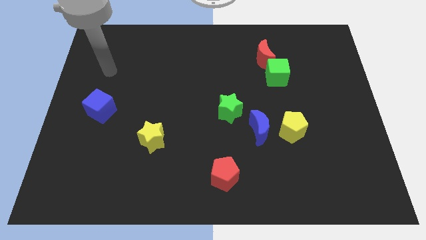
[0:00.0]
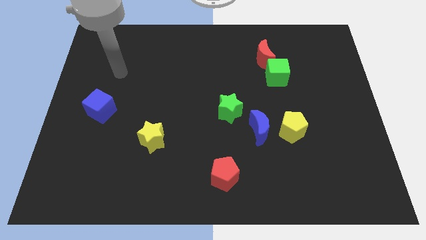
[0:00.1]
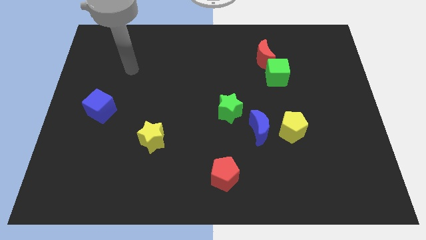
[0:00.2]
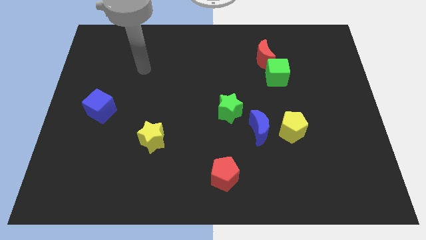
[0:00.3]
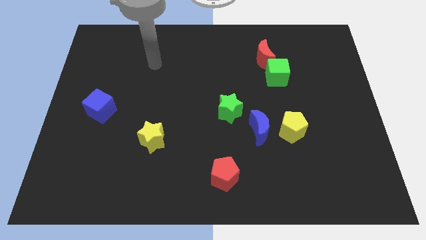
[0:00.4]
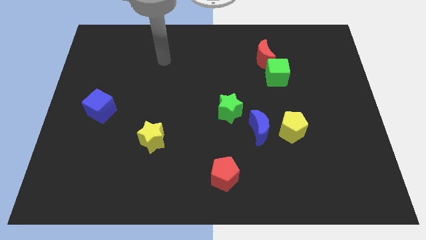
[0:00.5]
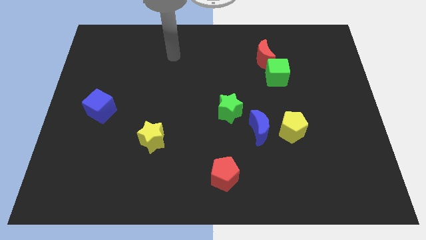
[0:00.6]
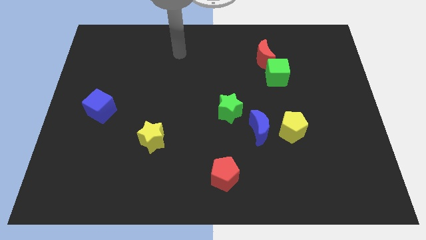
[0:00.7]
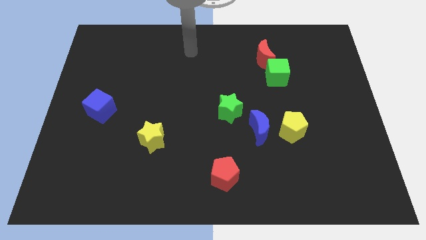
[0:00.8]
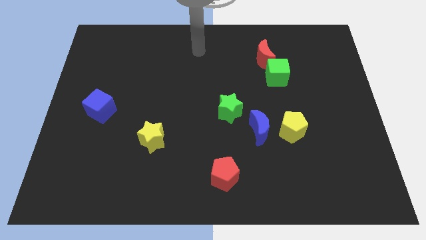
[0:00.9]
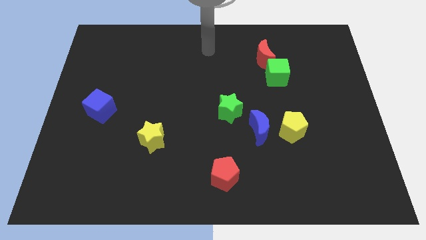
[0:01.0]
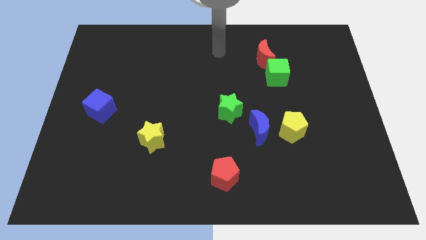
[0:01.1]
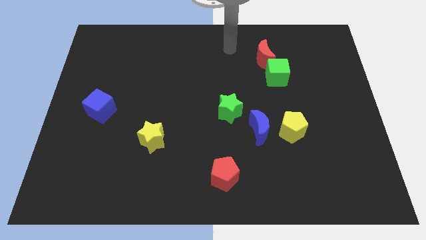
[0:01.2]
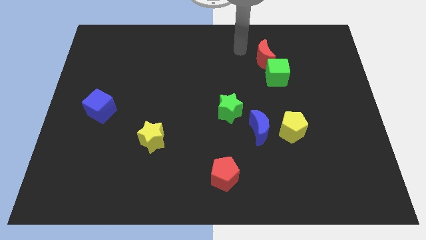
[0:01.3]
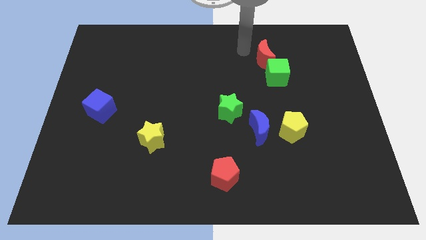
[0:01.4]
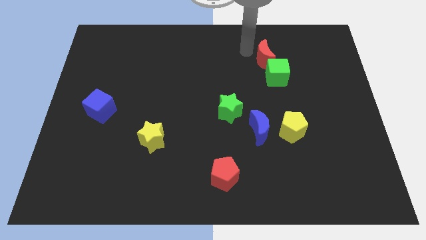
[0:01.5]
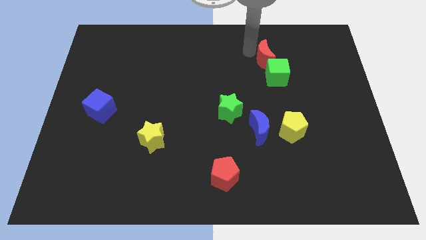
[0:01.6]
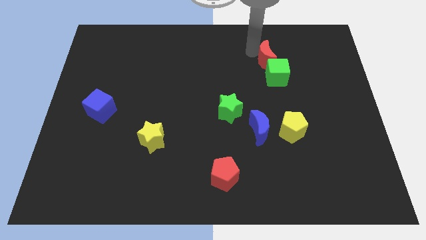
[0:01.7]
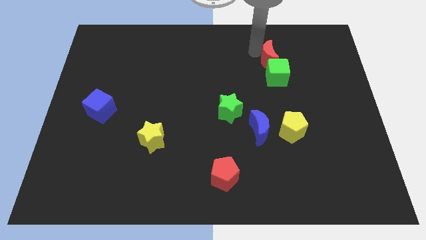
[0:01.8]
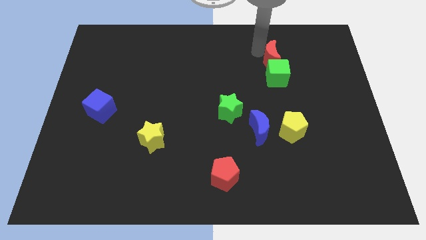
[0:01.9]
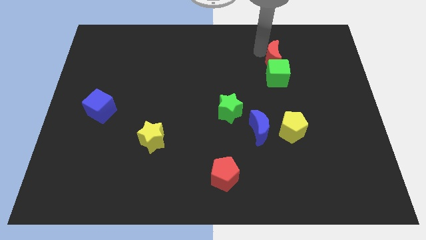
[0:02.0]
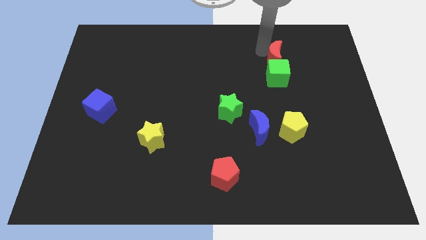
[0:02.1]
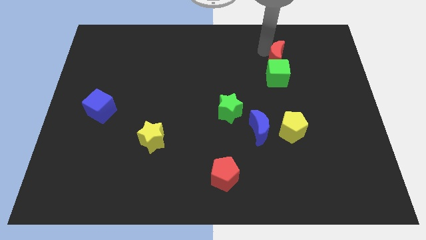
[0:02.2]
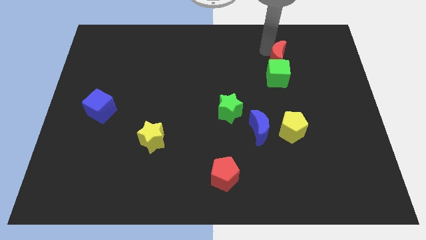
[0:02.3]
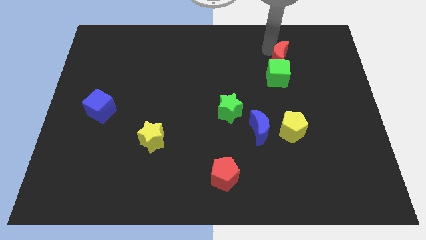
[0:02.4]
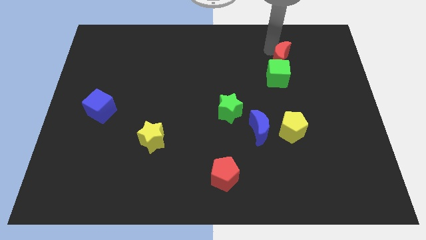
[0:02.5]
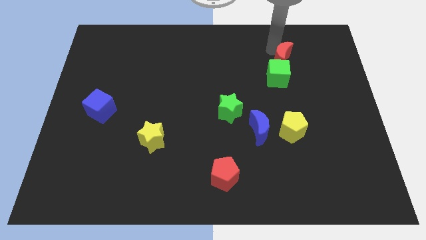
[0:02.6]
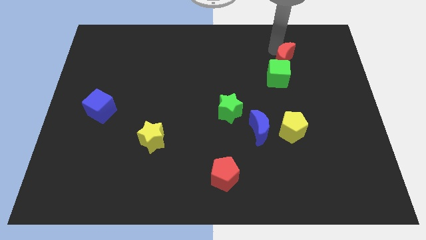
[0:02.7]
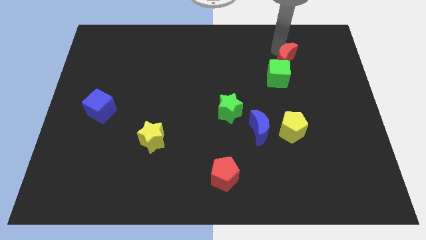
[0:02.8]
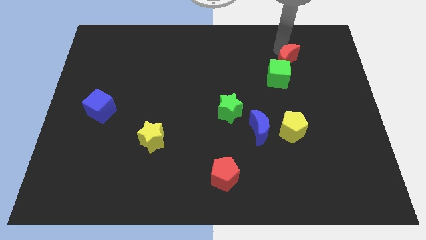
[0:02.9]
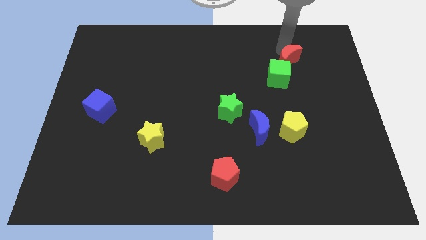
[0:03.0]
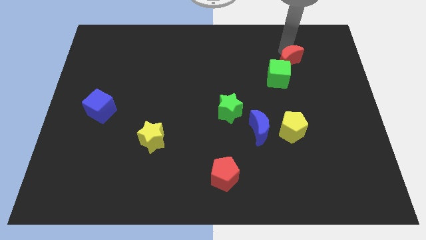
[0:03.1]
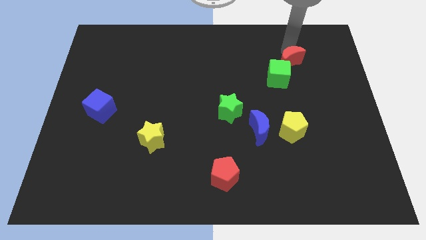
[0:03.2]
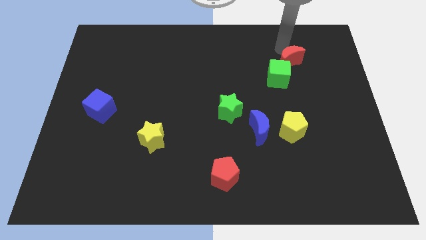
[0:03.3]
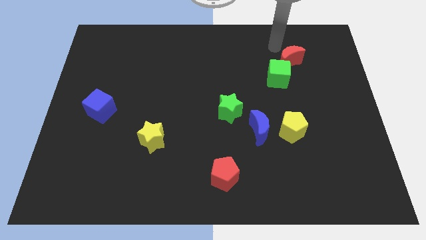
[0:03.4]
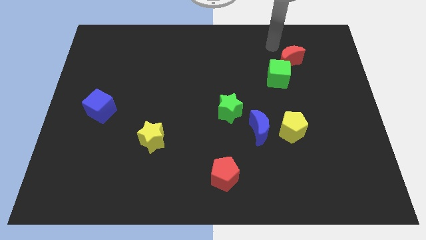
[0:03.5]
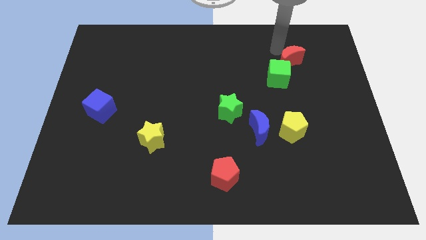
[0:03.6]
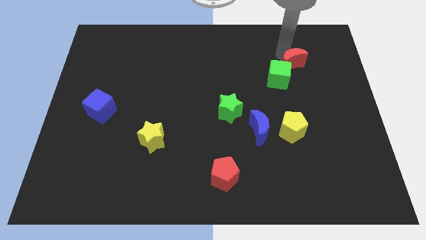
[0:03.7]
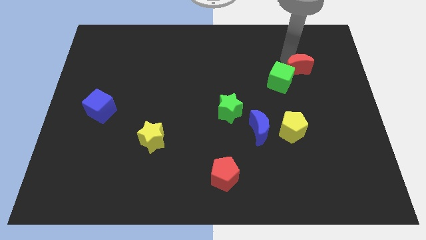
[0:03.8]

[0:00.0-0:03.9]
push the red moon downwards and then right a little bit

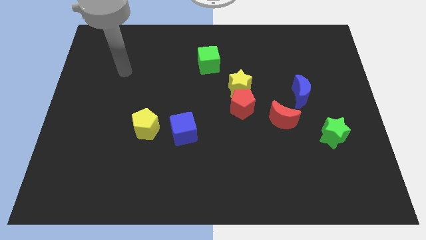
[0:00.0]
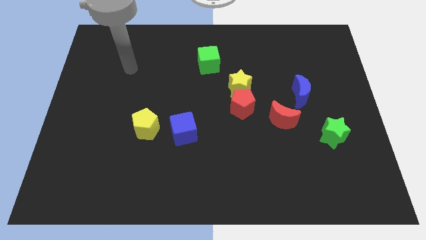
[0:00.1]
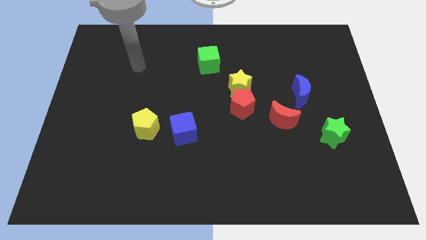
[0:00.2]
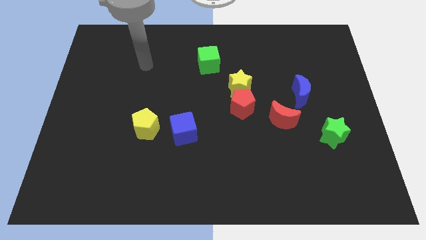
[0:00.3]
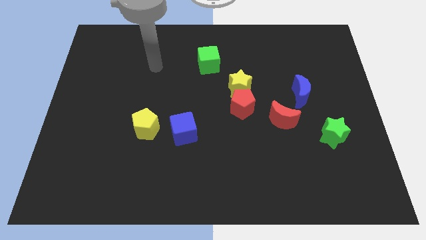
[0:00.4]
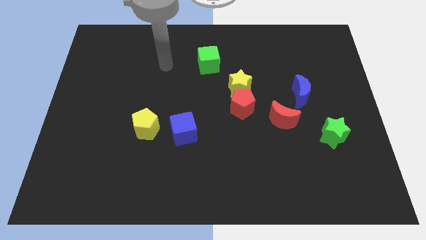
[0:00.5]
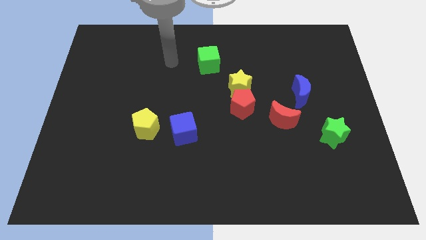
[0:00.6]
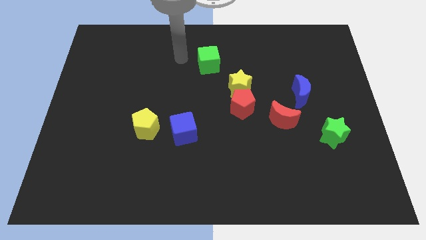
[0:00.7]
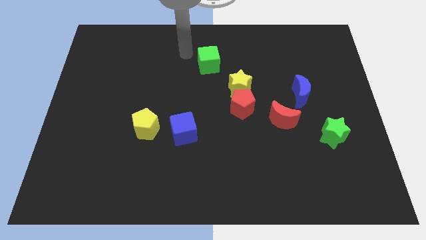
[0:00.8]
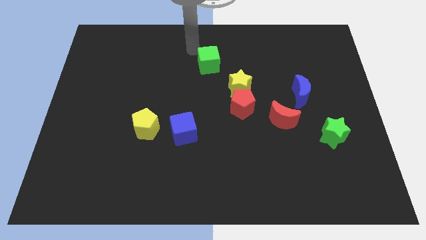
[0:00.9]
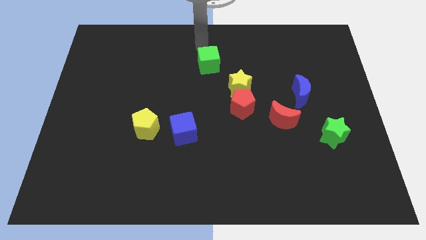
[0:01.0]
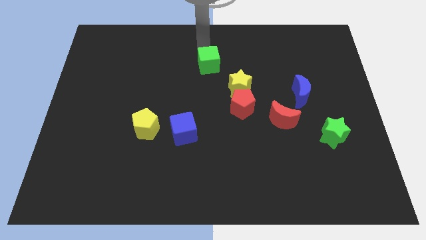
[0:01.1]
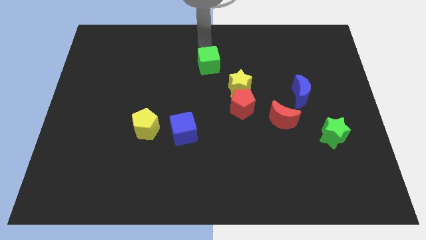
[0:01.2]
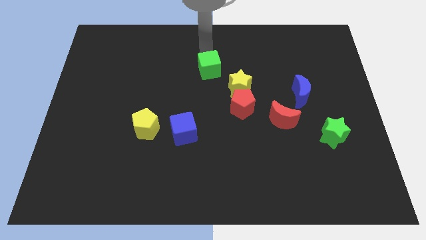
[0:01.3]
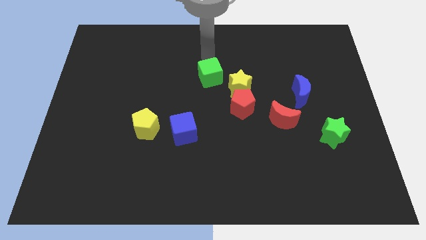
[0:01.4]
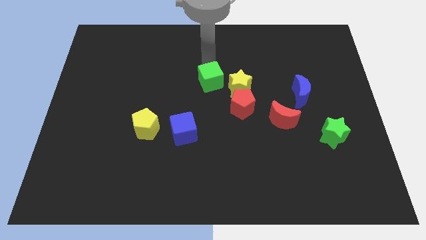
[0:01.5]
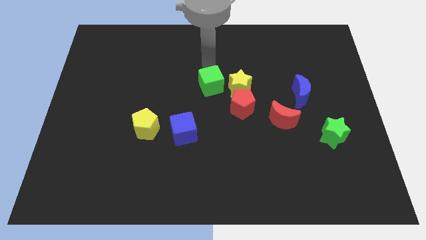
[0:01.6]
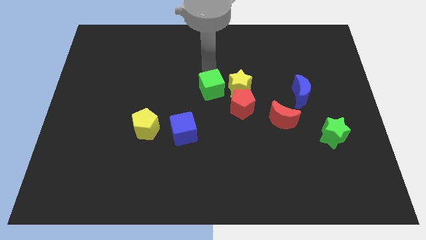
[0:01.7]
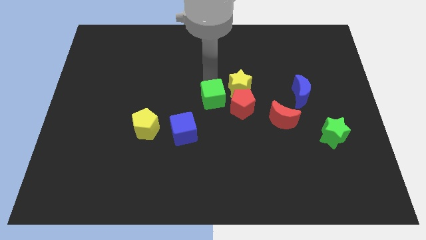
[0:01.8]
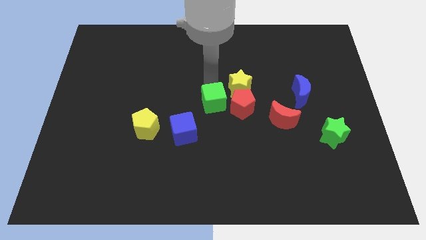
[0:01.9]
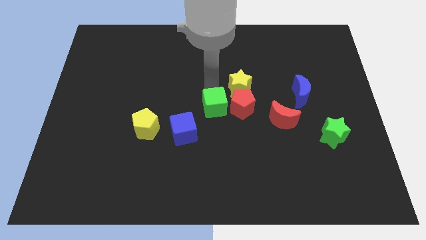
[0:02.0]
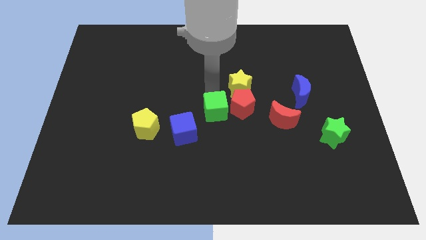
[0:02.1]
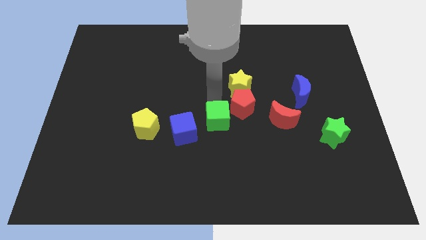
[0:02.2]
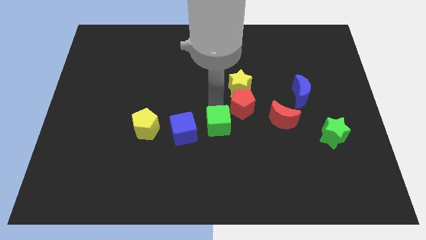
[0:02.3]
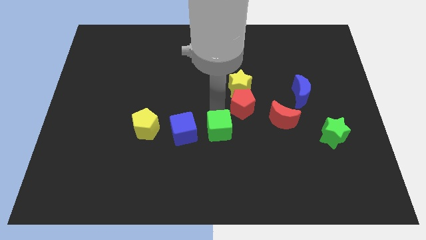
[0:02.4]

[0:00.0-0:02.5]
slide the green cube downwards

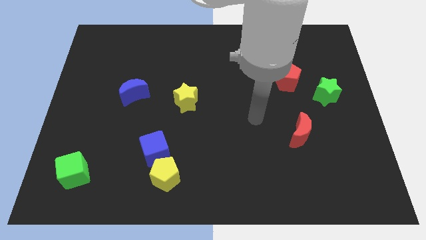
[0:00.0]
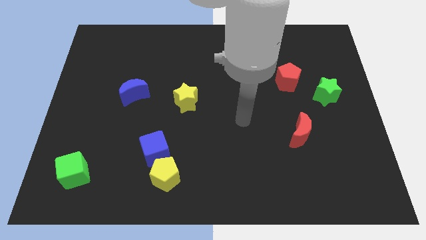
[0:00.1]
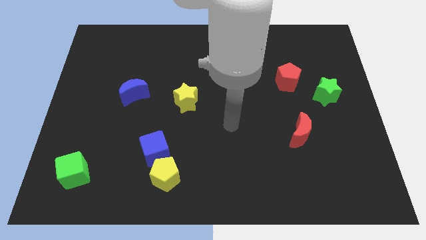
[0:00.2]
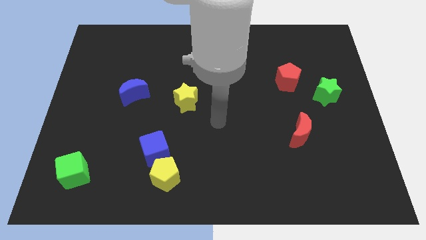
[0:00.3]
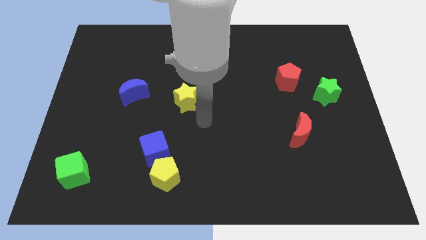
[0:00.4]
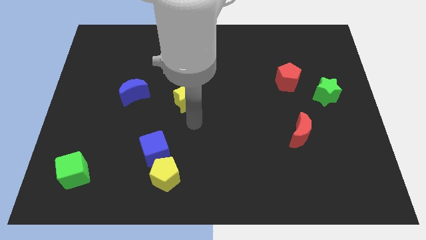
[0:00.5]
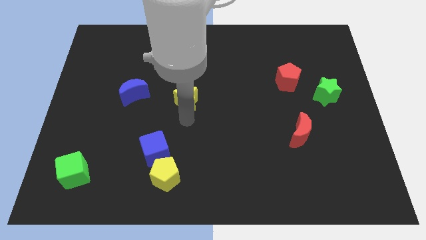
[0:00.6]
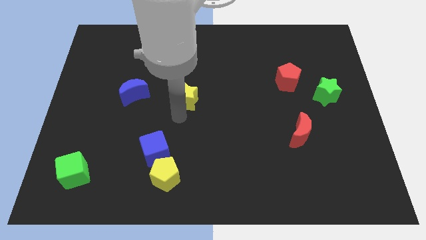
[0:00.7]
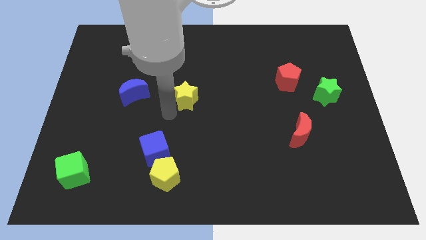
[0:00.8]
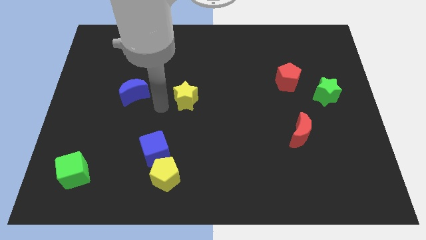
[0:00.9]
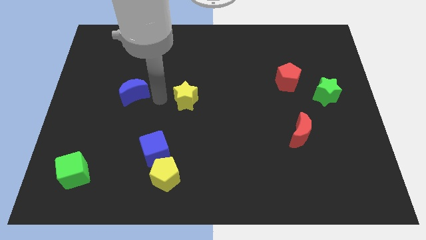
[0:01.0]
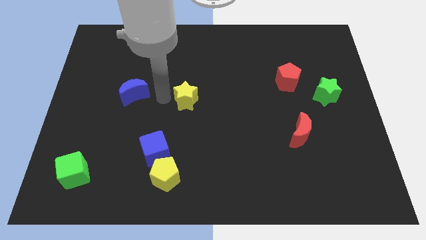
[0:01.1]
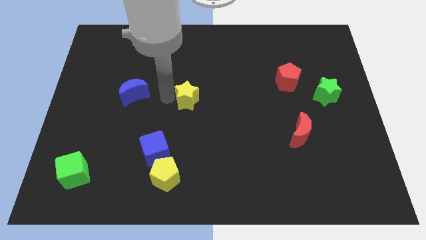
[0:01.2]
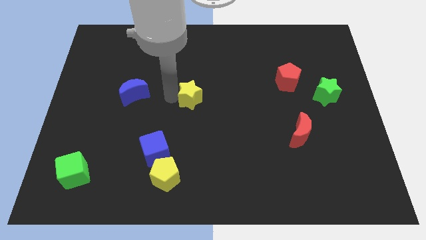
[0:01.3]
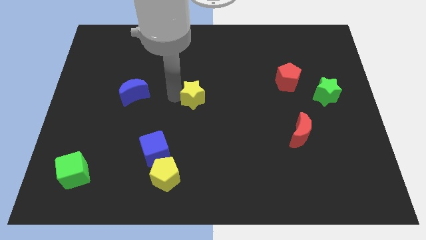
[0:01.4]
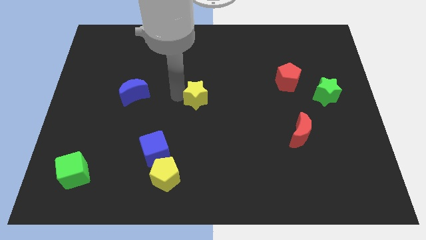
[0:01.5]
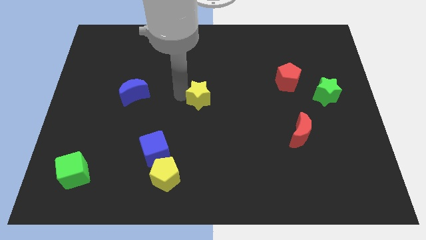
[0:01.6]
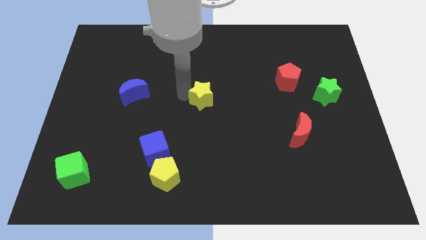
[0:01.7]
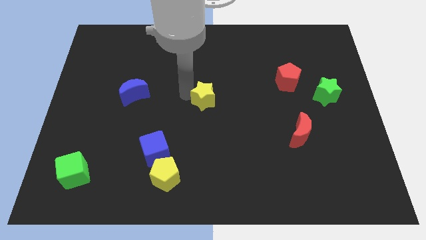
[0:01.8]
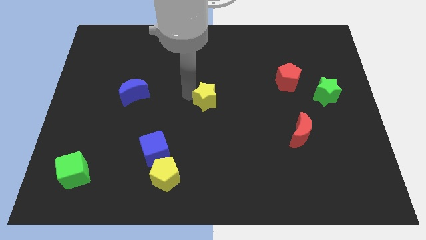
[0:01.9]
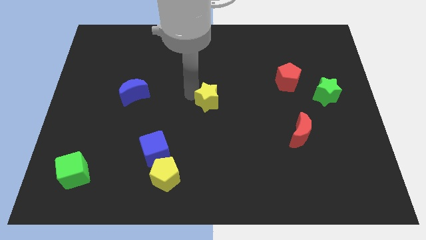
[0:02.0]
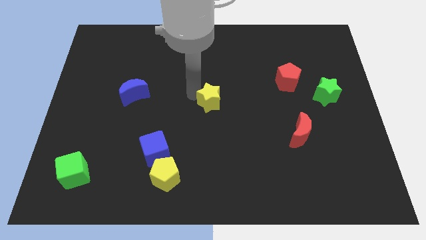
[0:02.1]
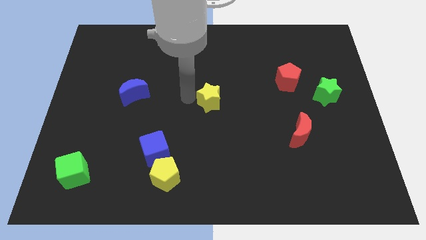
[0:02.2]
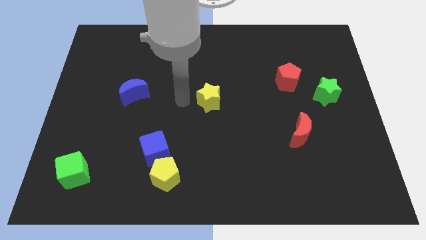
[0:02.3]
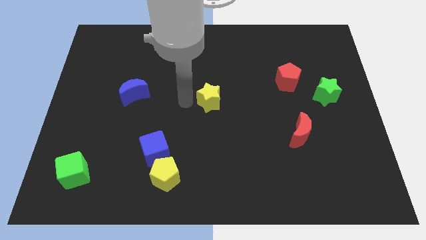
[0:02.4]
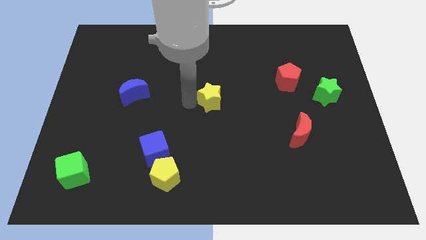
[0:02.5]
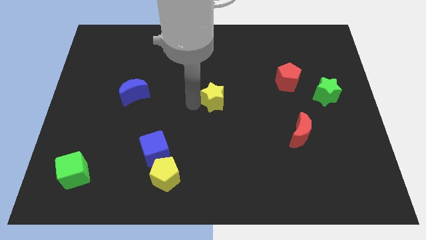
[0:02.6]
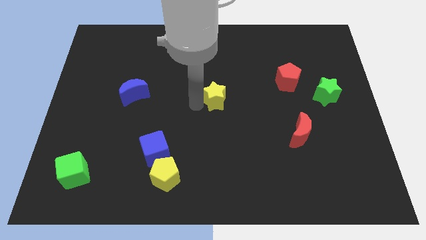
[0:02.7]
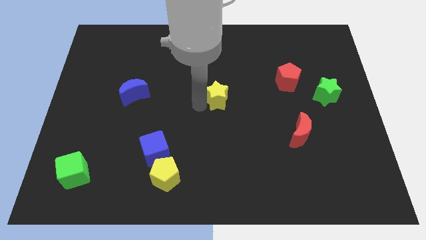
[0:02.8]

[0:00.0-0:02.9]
push the yellow star to the right slightly
